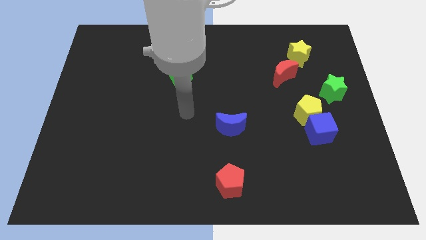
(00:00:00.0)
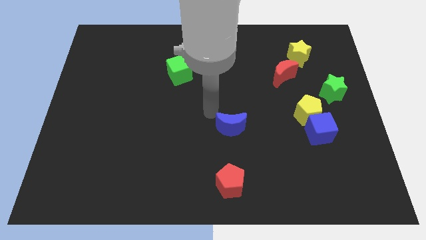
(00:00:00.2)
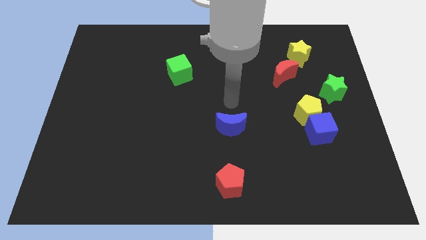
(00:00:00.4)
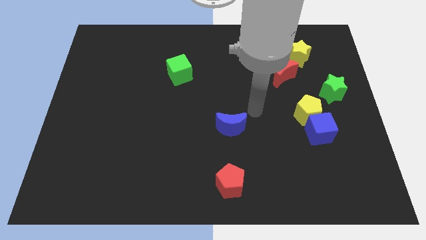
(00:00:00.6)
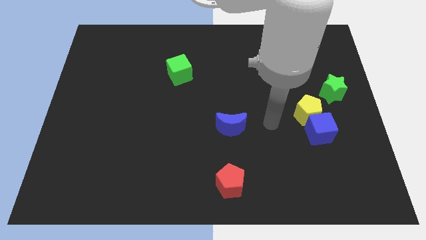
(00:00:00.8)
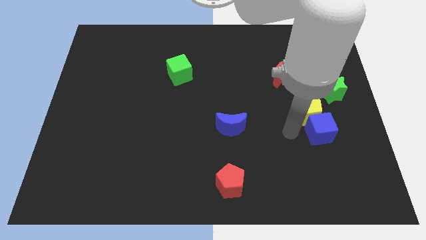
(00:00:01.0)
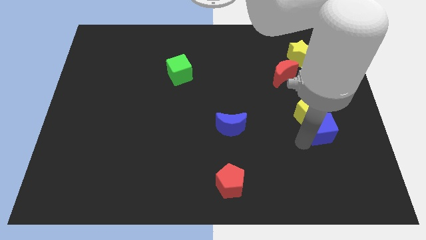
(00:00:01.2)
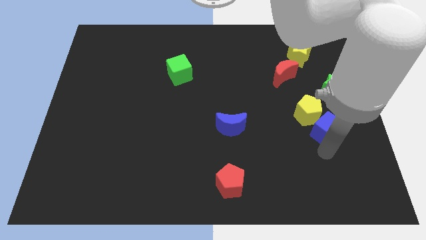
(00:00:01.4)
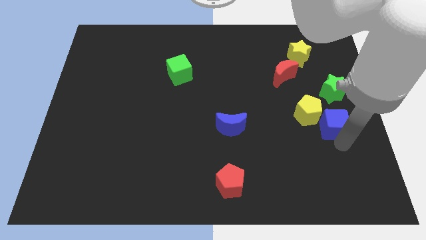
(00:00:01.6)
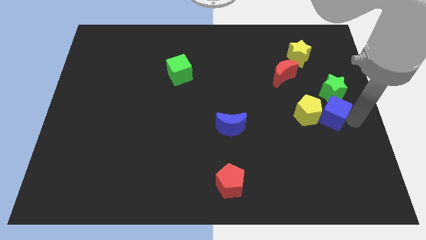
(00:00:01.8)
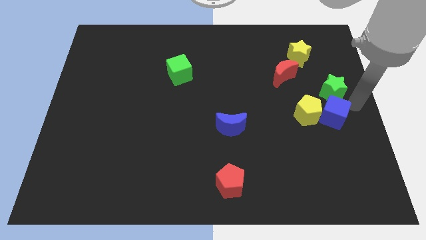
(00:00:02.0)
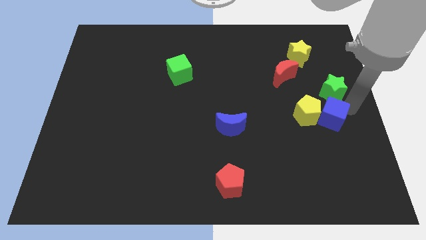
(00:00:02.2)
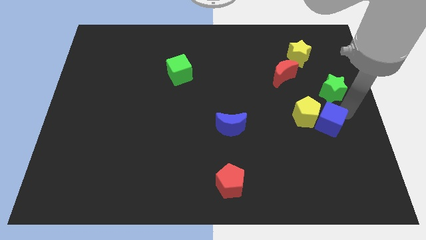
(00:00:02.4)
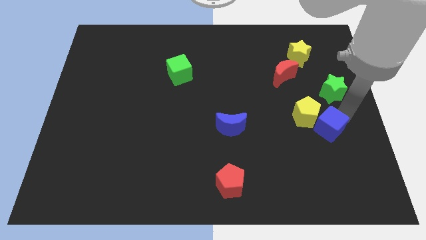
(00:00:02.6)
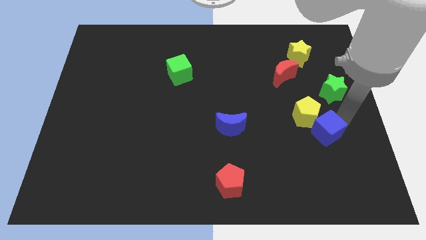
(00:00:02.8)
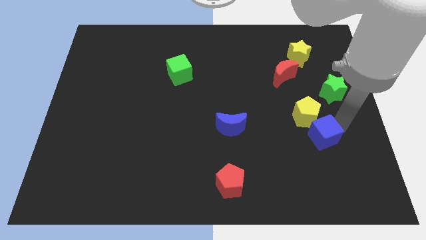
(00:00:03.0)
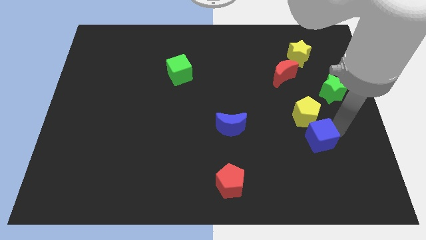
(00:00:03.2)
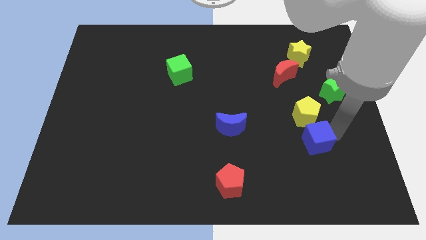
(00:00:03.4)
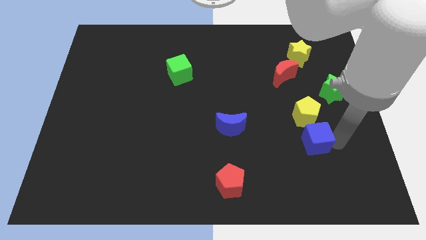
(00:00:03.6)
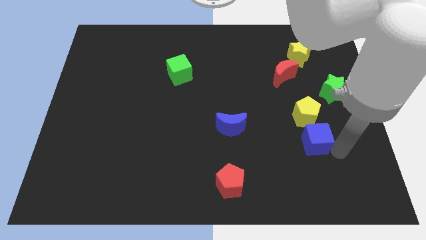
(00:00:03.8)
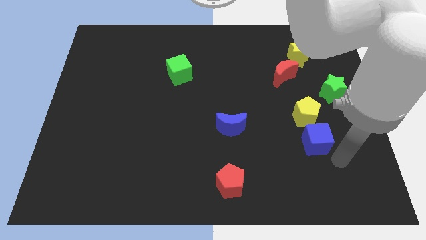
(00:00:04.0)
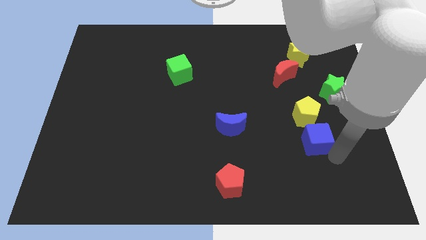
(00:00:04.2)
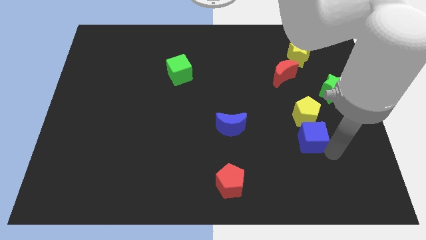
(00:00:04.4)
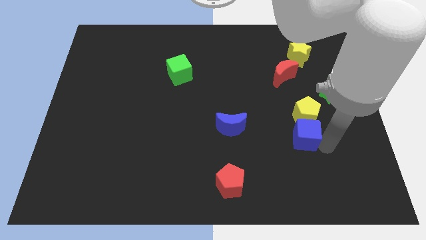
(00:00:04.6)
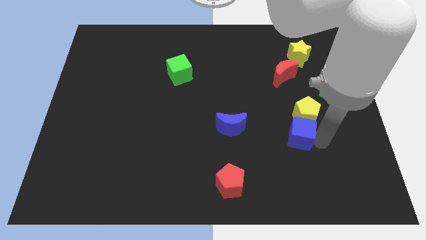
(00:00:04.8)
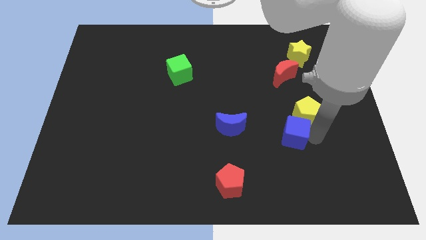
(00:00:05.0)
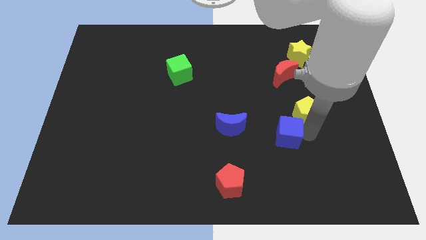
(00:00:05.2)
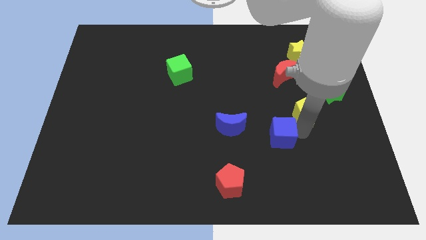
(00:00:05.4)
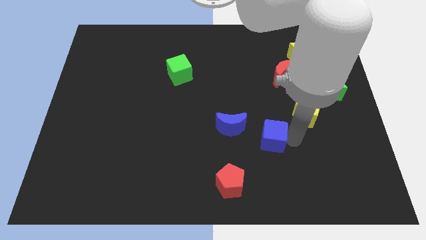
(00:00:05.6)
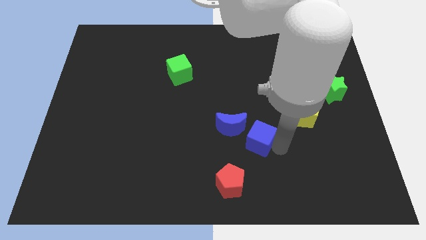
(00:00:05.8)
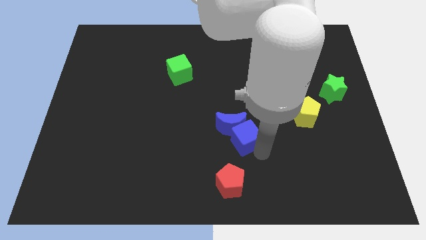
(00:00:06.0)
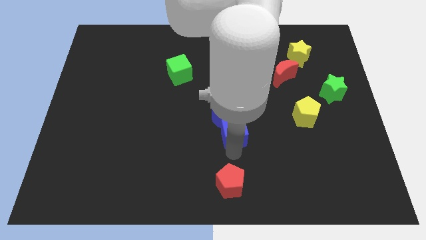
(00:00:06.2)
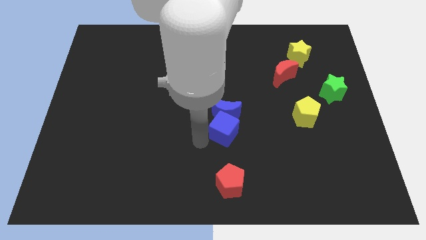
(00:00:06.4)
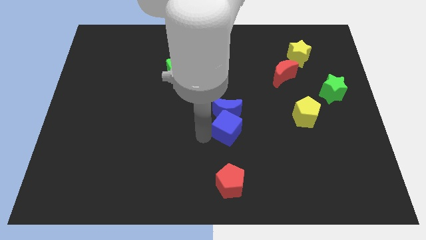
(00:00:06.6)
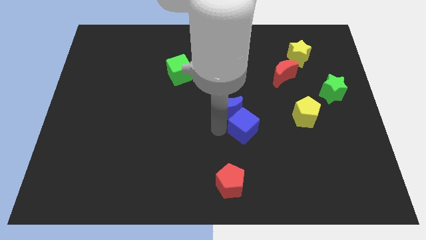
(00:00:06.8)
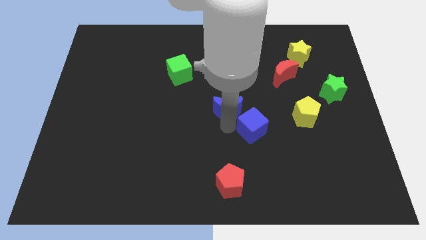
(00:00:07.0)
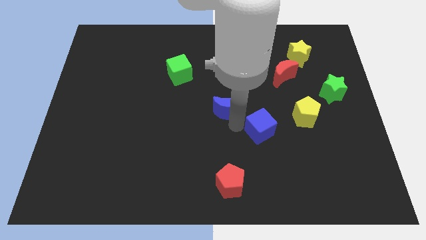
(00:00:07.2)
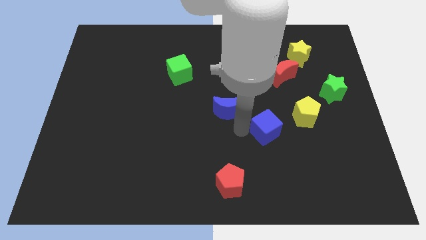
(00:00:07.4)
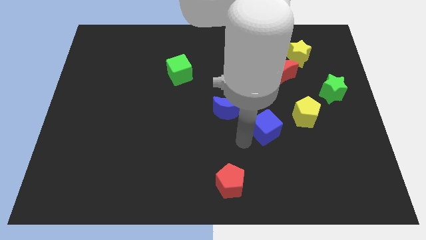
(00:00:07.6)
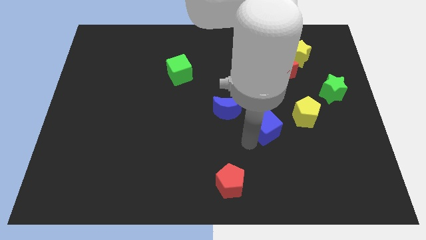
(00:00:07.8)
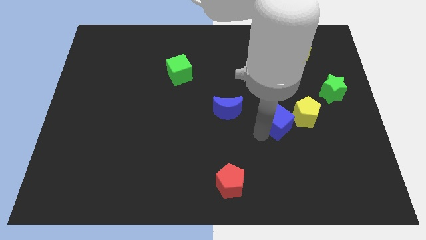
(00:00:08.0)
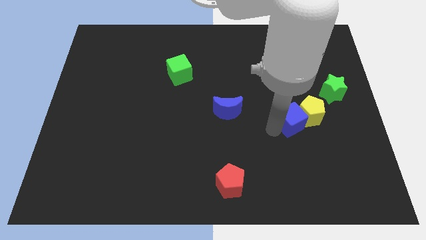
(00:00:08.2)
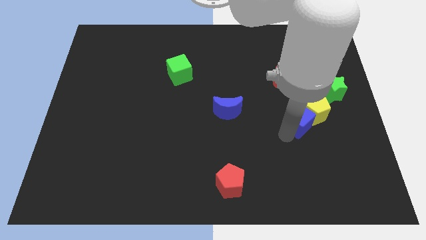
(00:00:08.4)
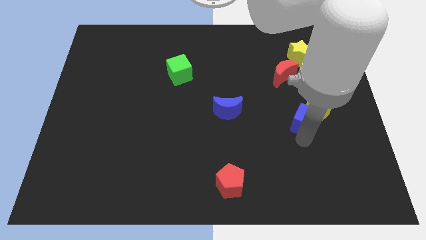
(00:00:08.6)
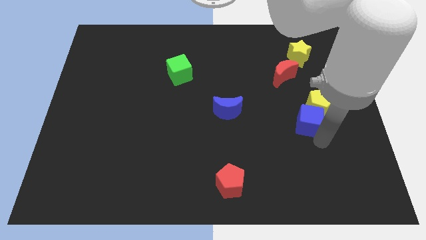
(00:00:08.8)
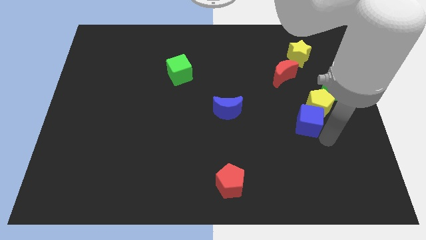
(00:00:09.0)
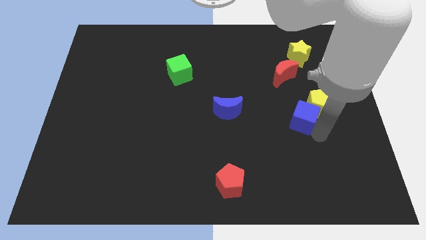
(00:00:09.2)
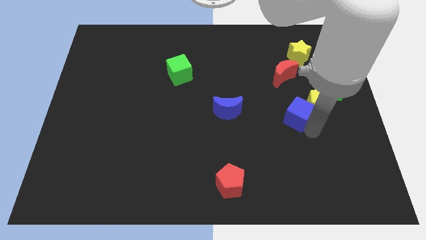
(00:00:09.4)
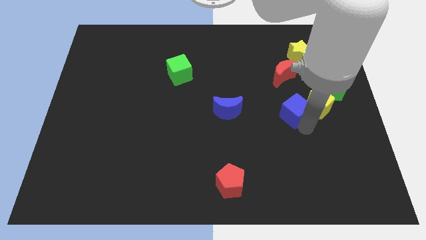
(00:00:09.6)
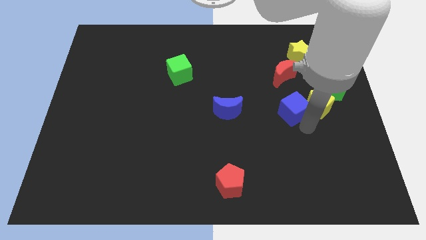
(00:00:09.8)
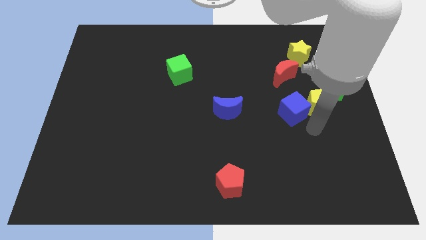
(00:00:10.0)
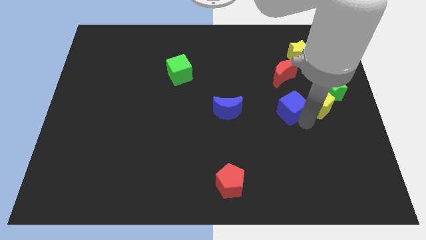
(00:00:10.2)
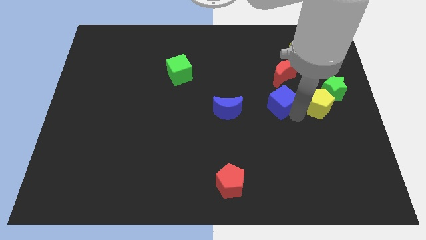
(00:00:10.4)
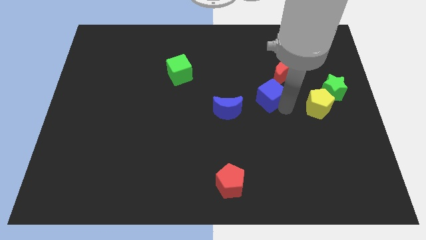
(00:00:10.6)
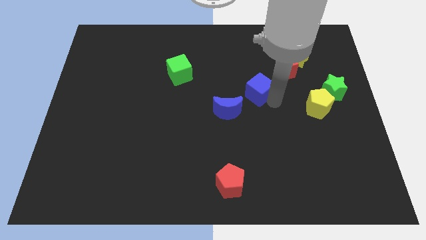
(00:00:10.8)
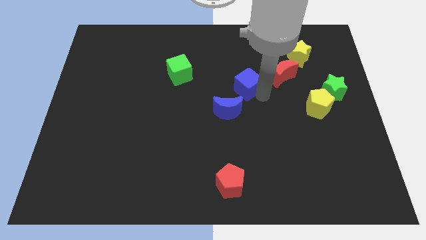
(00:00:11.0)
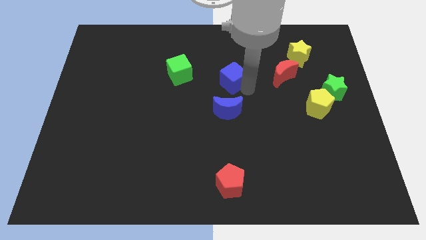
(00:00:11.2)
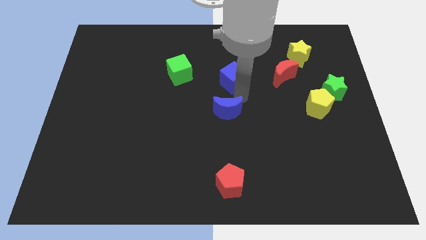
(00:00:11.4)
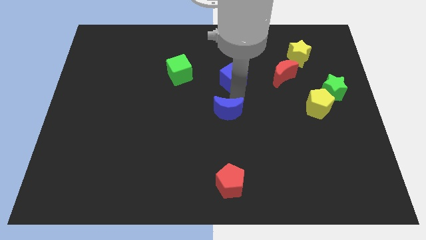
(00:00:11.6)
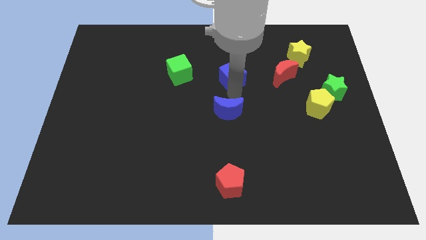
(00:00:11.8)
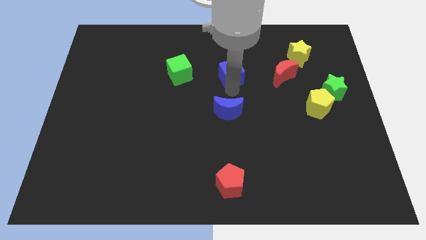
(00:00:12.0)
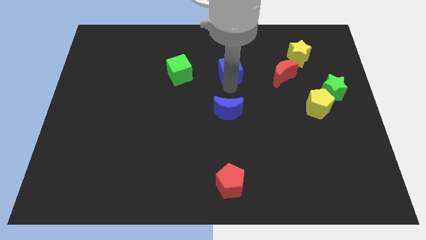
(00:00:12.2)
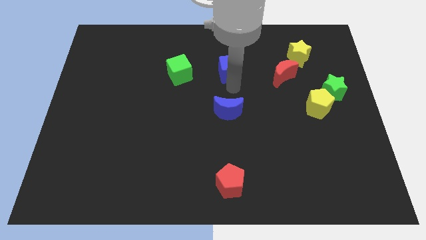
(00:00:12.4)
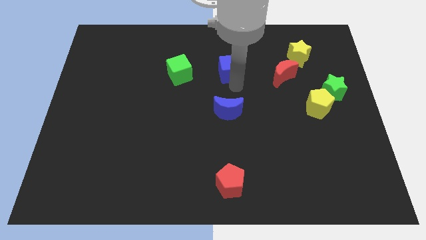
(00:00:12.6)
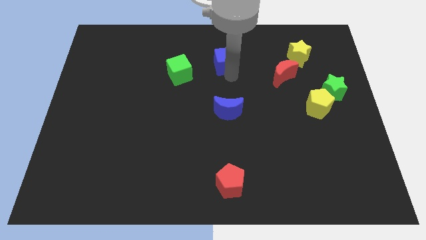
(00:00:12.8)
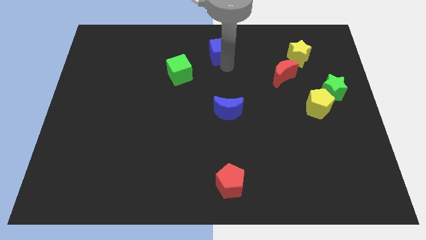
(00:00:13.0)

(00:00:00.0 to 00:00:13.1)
move the blue cube to the towards your base
